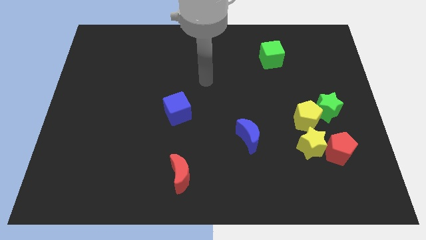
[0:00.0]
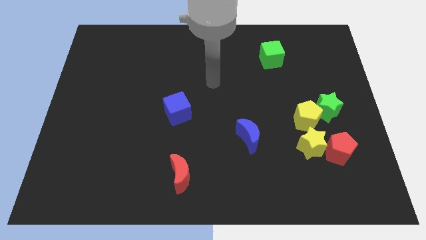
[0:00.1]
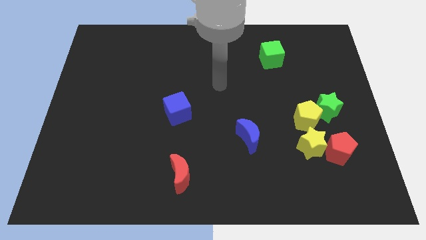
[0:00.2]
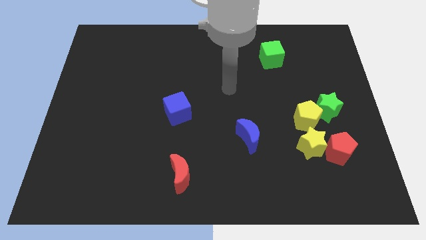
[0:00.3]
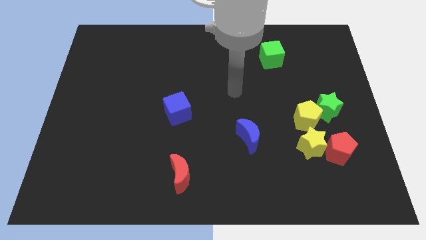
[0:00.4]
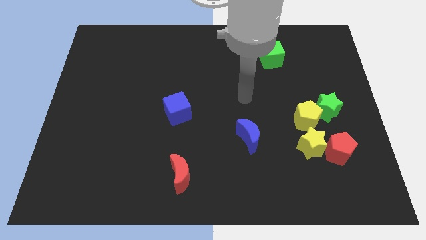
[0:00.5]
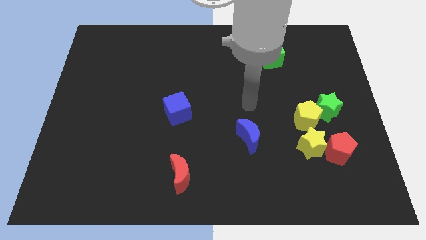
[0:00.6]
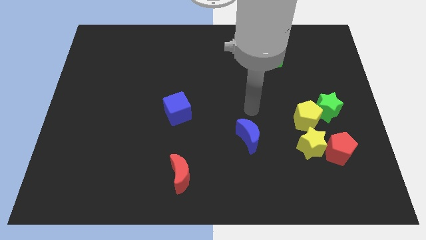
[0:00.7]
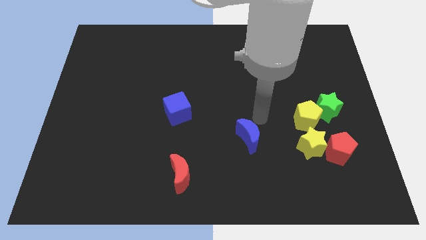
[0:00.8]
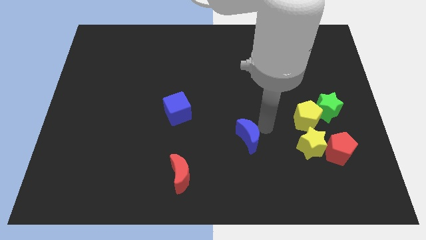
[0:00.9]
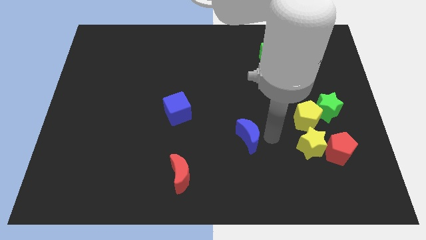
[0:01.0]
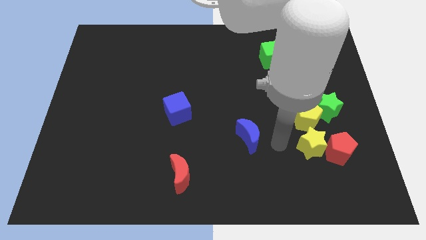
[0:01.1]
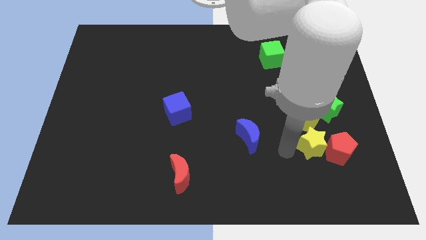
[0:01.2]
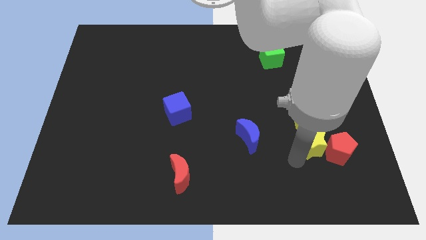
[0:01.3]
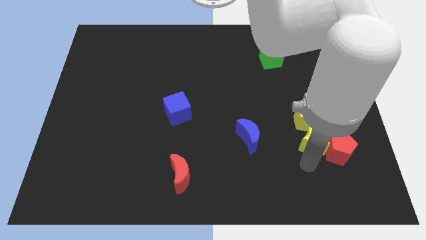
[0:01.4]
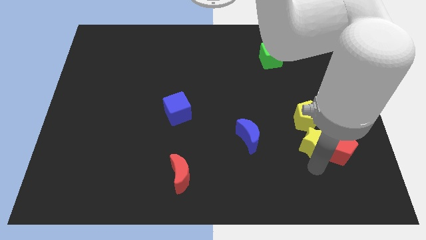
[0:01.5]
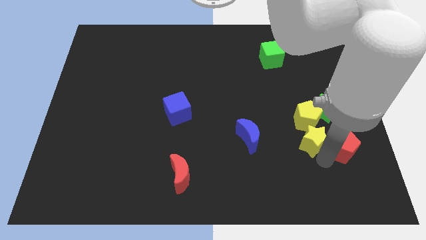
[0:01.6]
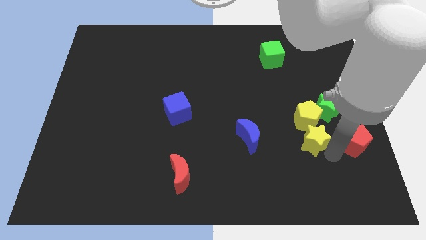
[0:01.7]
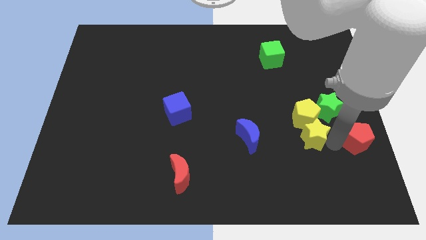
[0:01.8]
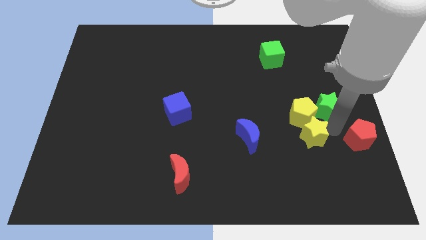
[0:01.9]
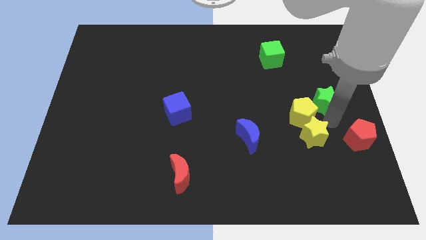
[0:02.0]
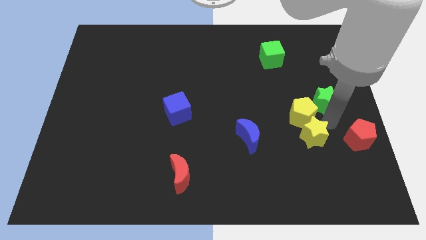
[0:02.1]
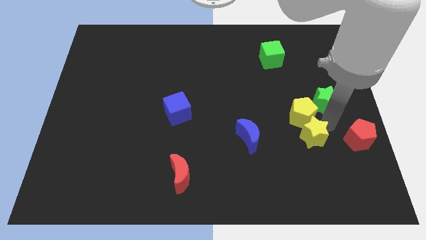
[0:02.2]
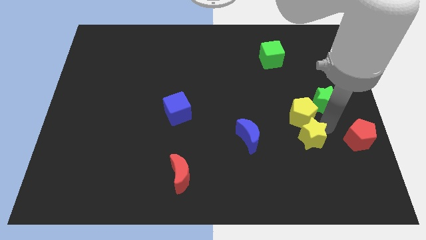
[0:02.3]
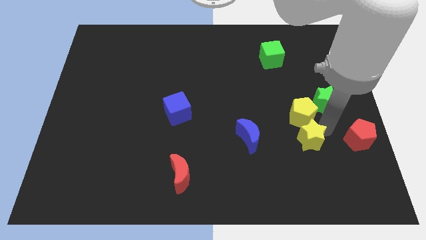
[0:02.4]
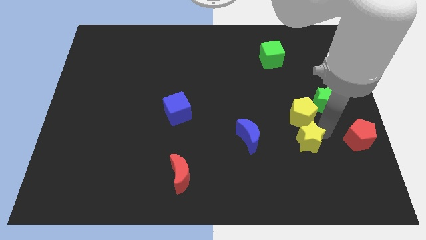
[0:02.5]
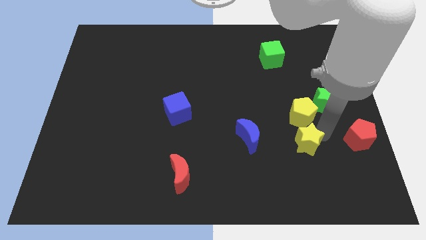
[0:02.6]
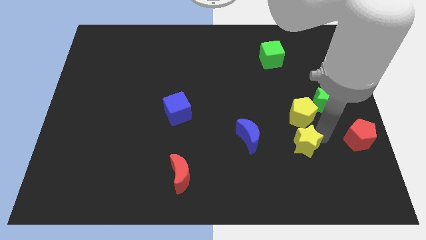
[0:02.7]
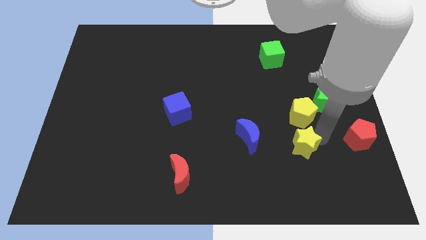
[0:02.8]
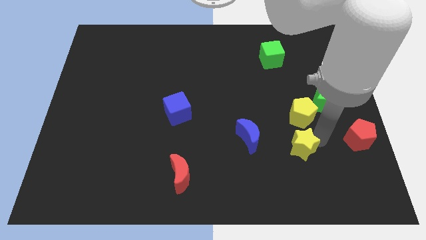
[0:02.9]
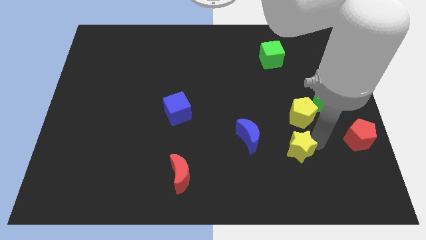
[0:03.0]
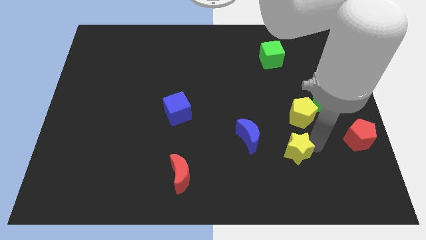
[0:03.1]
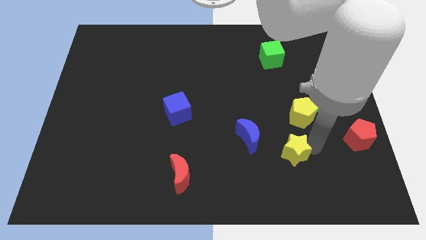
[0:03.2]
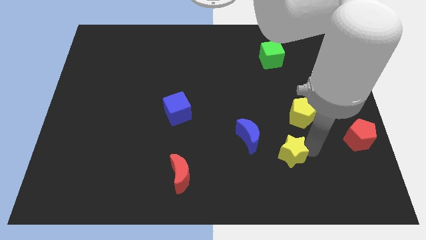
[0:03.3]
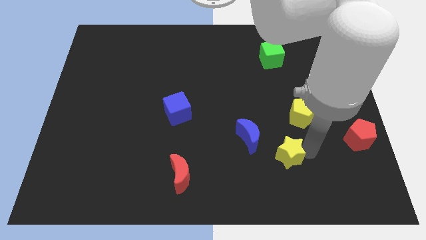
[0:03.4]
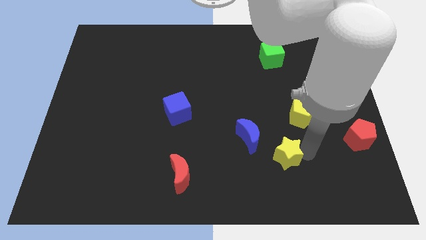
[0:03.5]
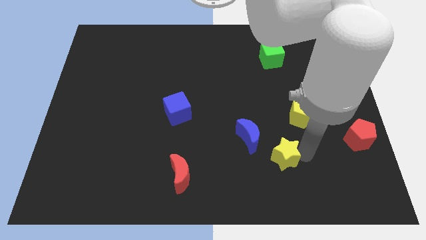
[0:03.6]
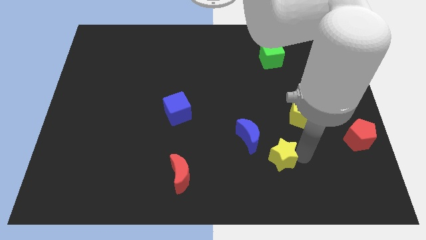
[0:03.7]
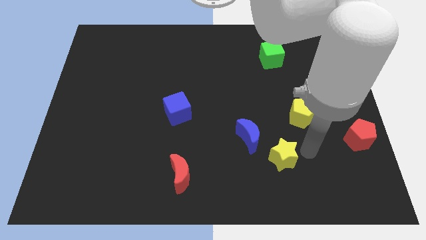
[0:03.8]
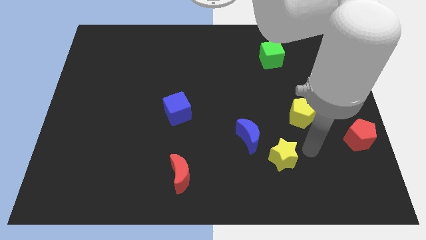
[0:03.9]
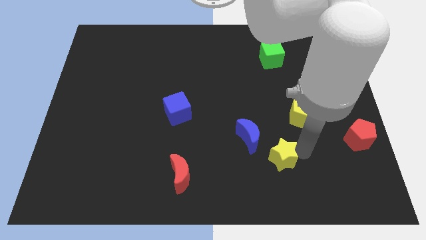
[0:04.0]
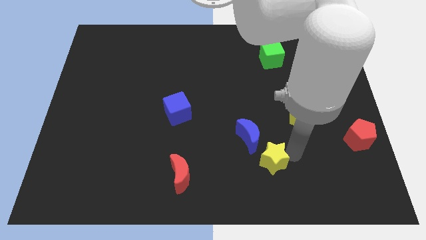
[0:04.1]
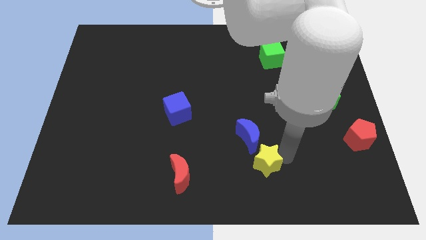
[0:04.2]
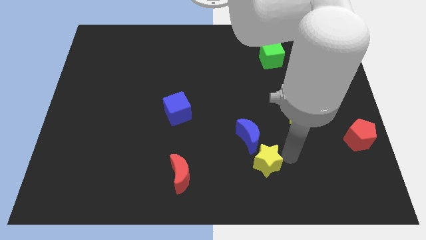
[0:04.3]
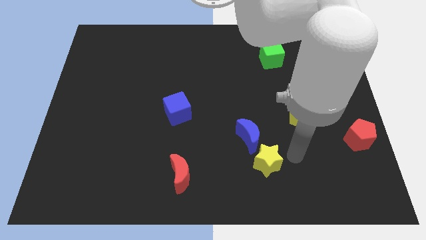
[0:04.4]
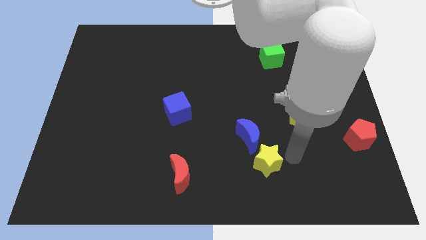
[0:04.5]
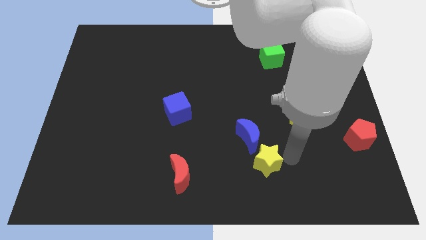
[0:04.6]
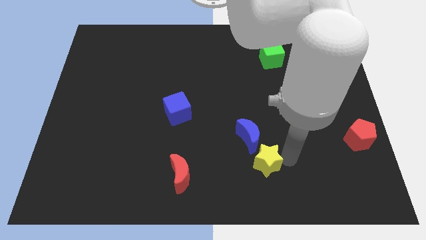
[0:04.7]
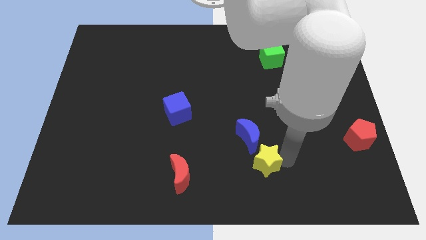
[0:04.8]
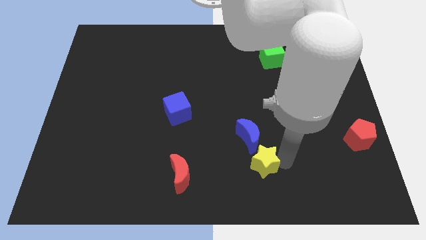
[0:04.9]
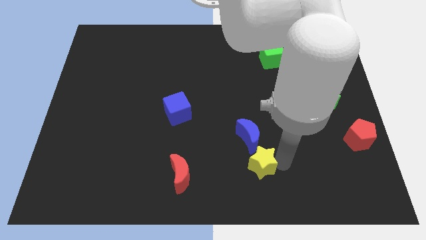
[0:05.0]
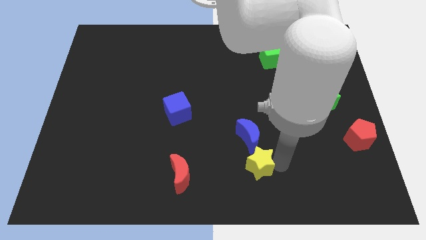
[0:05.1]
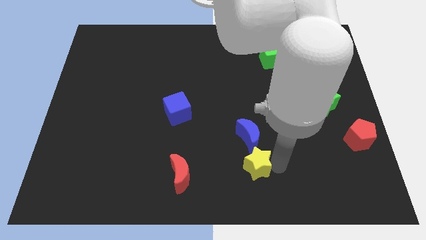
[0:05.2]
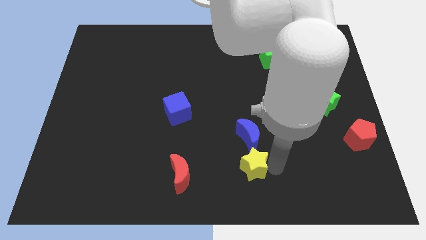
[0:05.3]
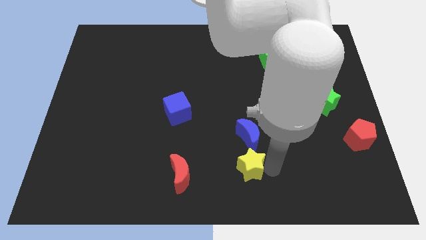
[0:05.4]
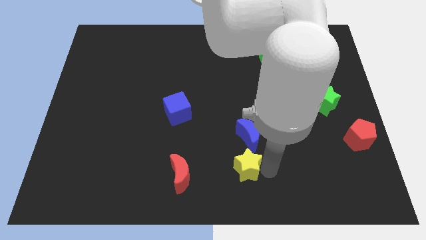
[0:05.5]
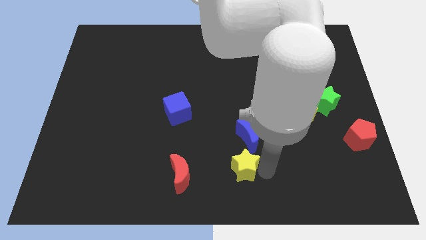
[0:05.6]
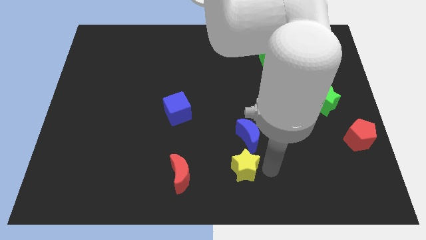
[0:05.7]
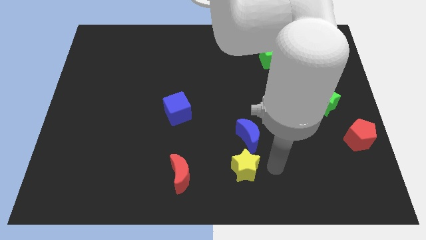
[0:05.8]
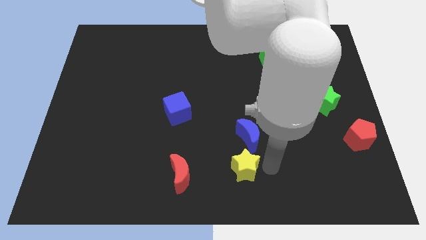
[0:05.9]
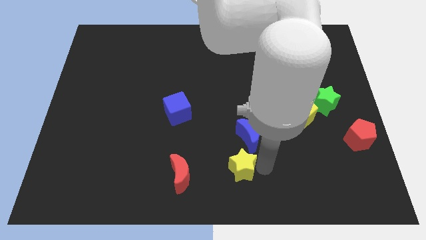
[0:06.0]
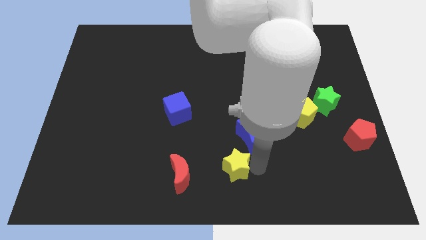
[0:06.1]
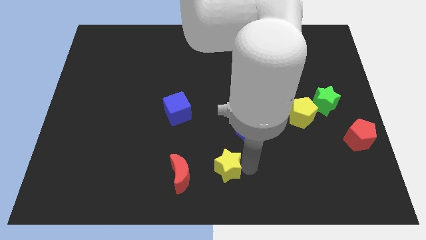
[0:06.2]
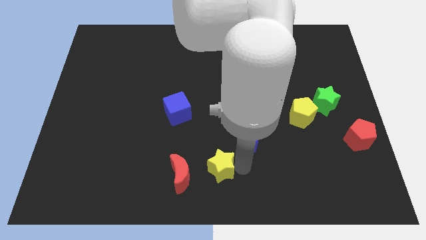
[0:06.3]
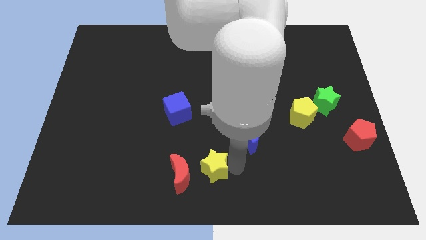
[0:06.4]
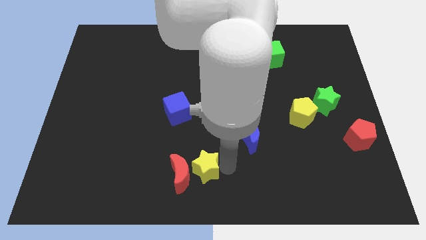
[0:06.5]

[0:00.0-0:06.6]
slide the yellow star close to the red moon

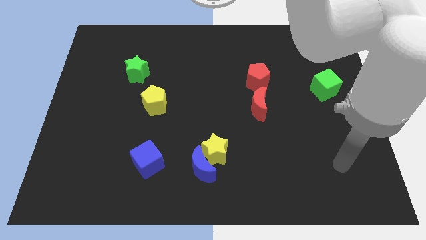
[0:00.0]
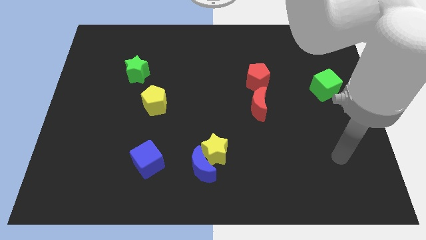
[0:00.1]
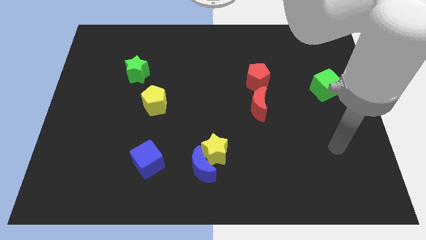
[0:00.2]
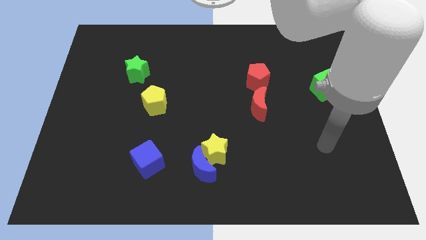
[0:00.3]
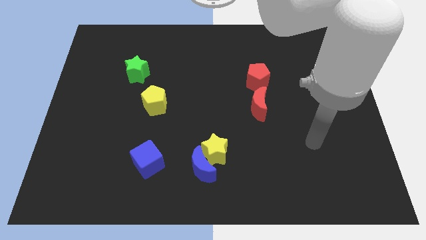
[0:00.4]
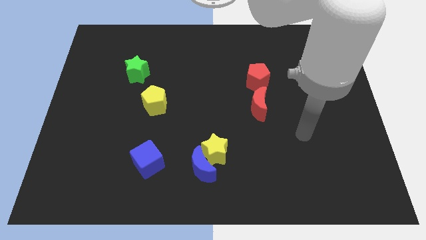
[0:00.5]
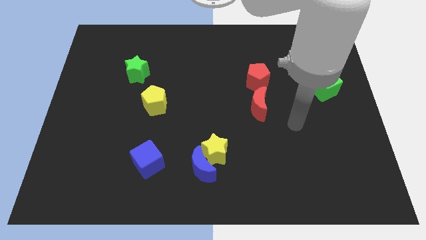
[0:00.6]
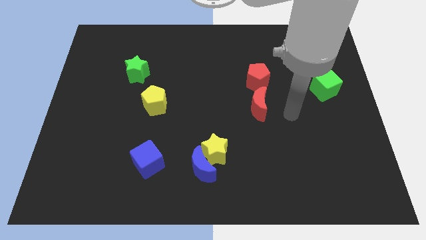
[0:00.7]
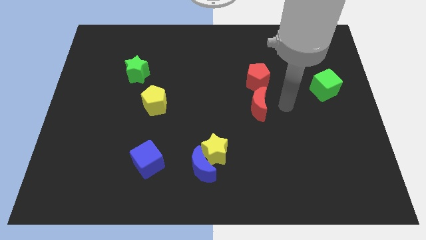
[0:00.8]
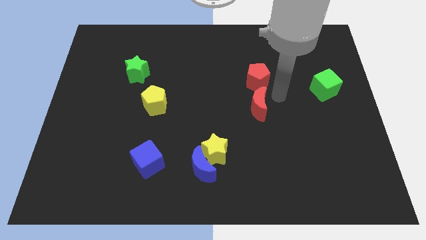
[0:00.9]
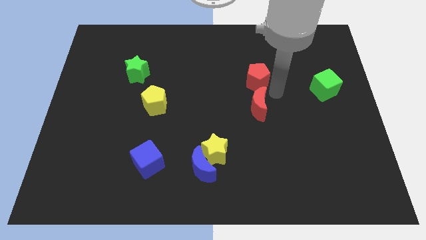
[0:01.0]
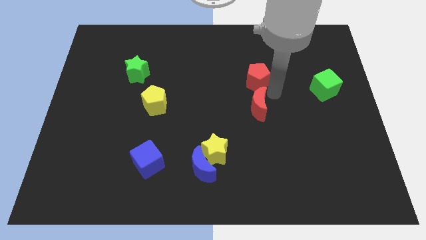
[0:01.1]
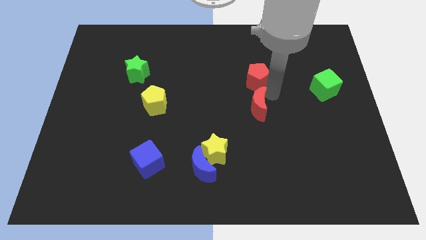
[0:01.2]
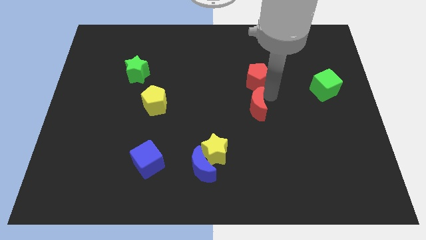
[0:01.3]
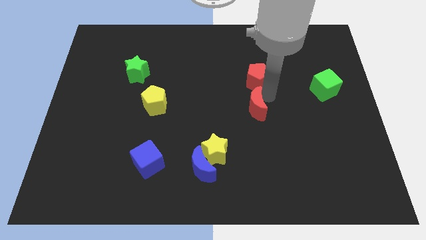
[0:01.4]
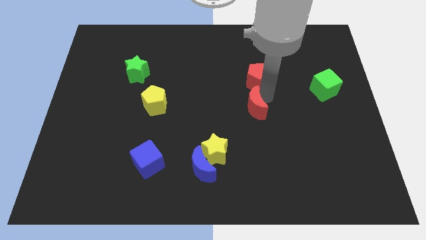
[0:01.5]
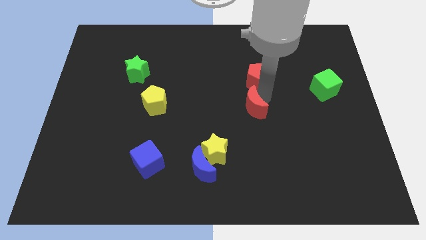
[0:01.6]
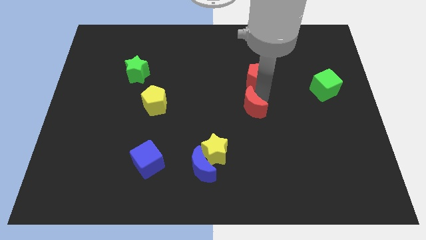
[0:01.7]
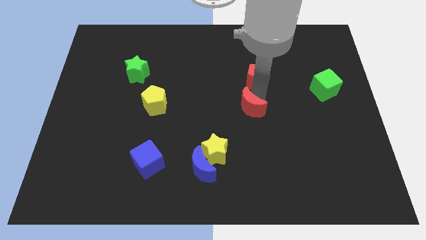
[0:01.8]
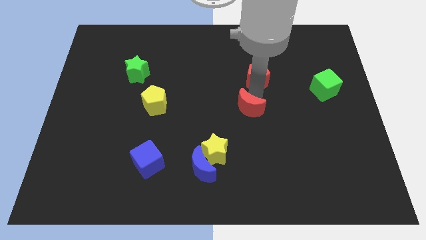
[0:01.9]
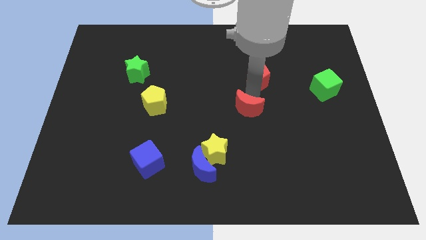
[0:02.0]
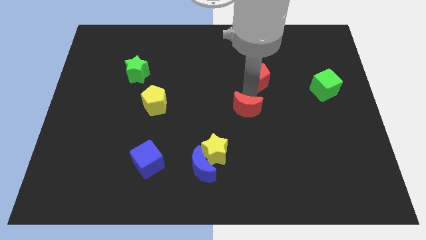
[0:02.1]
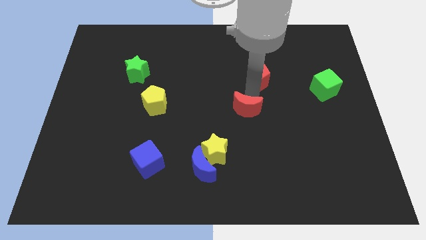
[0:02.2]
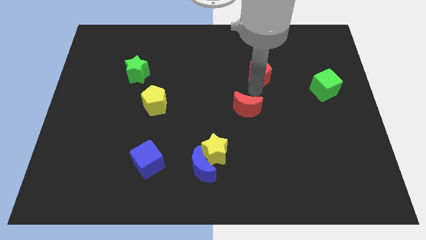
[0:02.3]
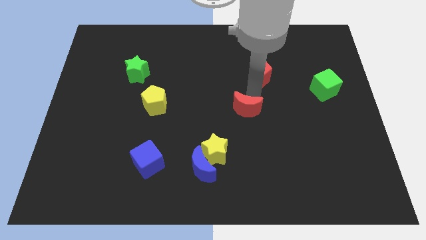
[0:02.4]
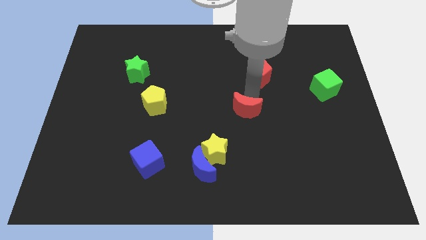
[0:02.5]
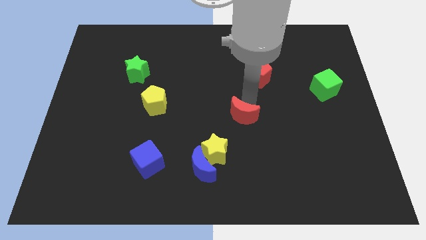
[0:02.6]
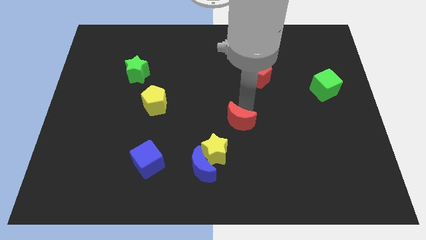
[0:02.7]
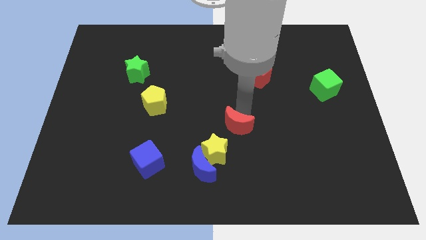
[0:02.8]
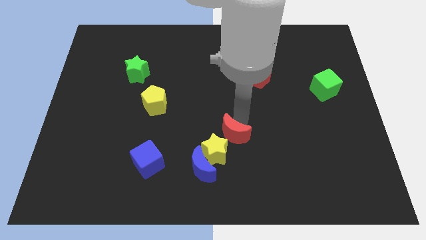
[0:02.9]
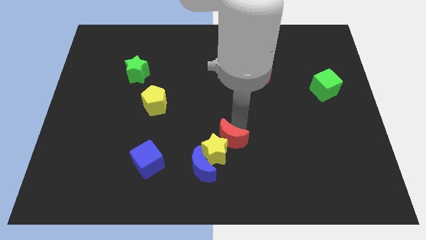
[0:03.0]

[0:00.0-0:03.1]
push the red moon towards the yellow star
